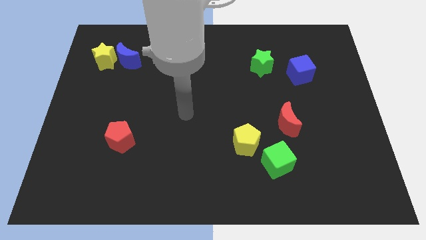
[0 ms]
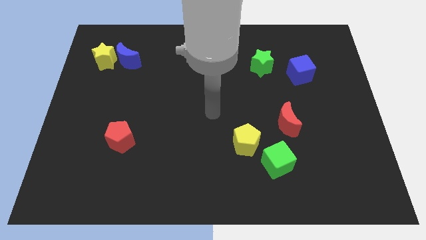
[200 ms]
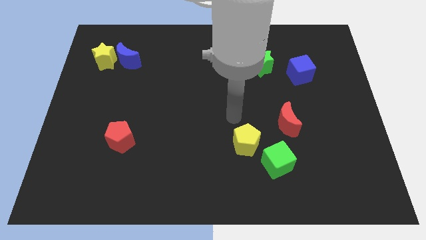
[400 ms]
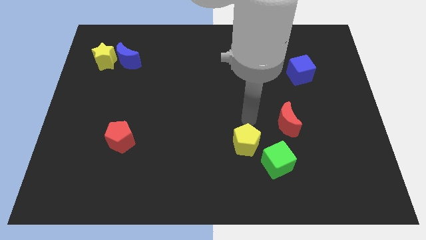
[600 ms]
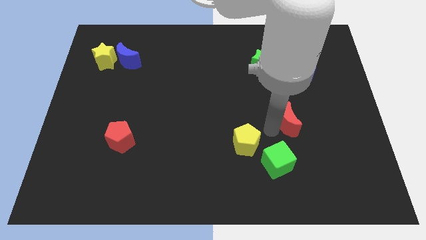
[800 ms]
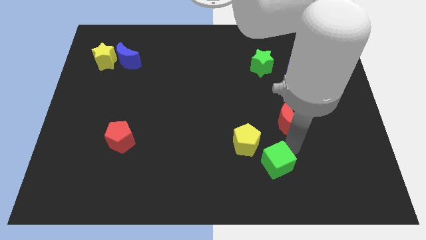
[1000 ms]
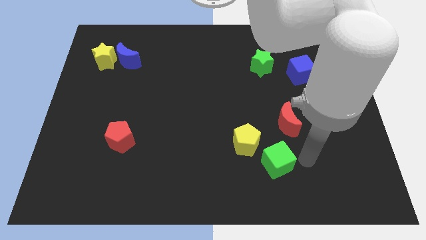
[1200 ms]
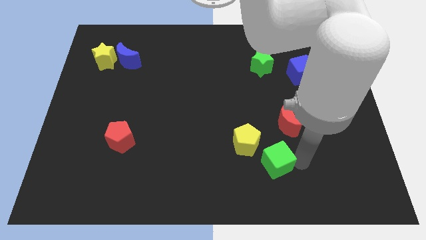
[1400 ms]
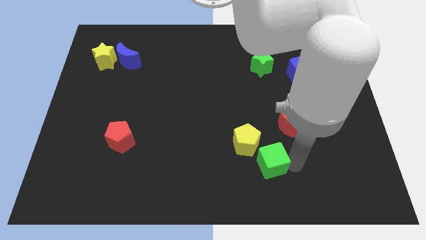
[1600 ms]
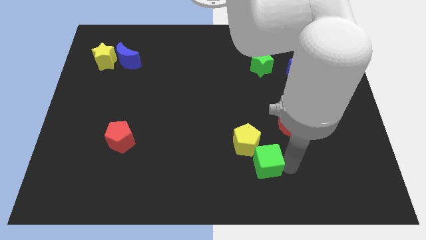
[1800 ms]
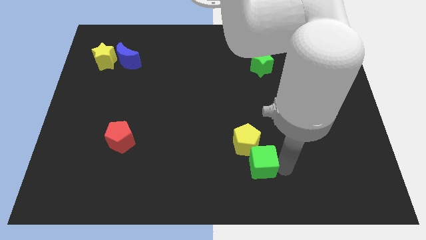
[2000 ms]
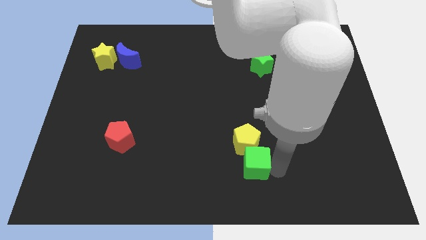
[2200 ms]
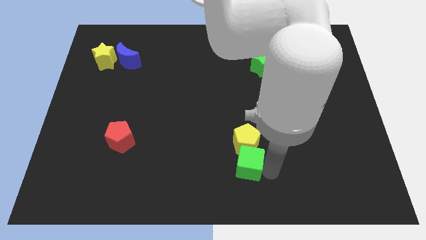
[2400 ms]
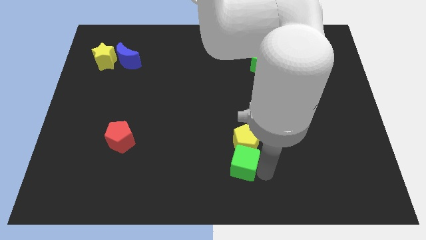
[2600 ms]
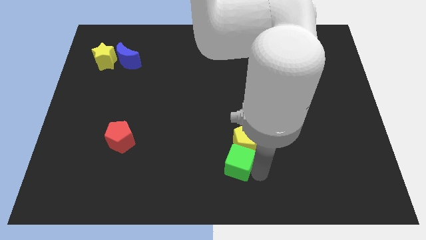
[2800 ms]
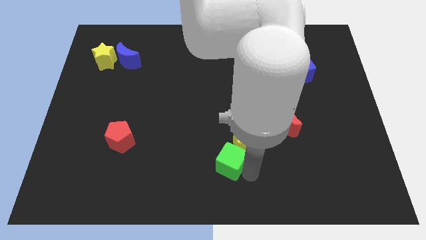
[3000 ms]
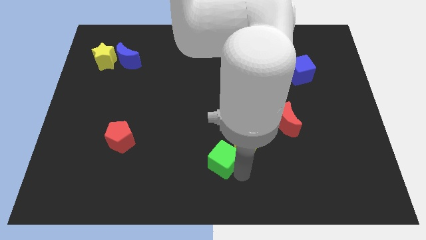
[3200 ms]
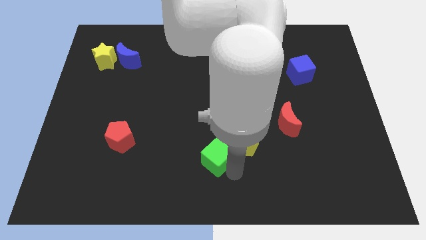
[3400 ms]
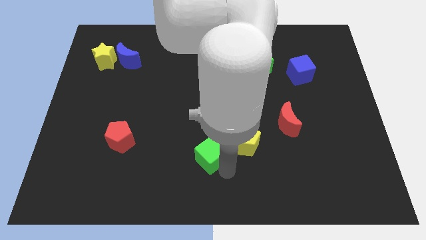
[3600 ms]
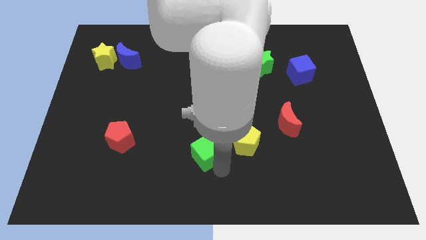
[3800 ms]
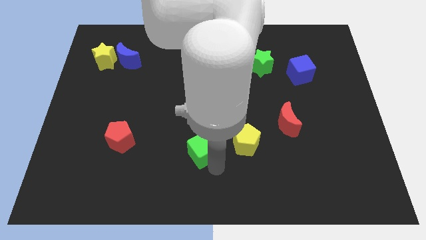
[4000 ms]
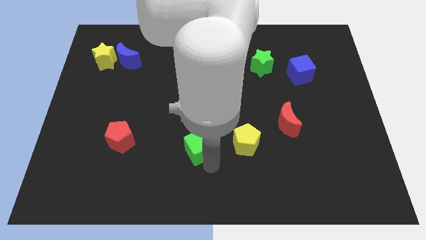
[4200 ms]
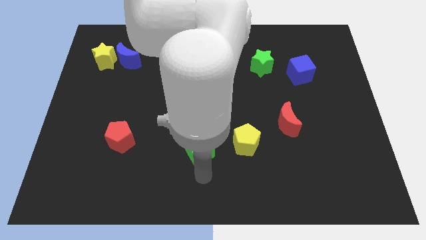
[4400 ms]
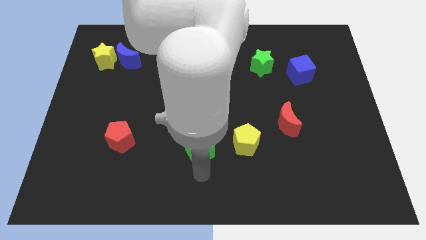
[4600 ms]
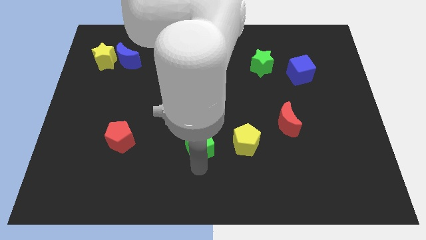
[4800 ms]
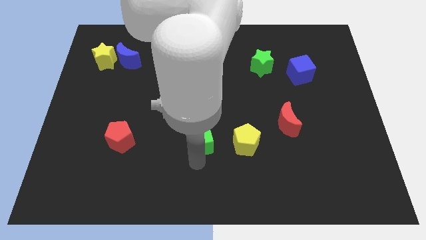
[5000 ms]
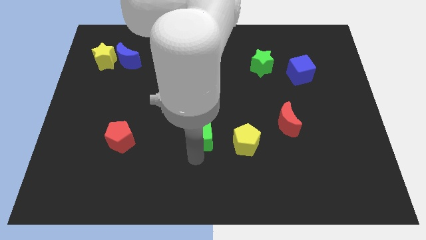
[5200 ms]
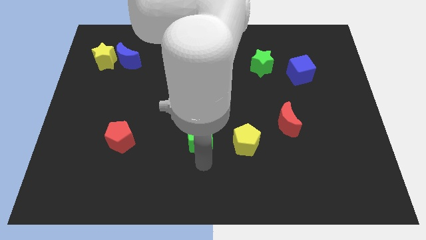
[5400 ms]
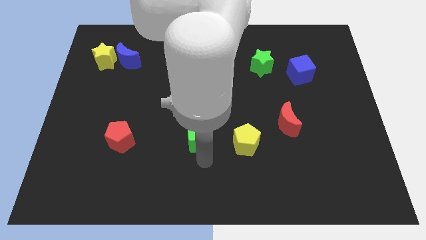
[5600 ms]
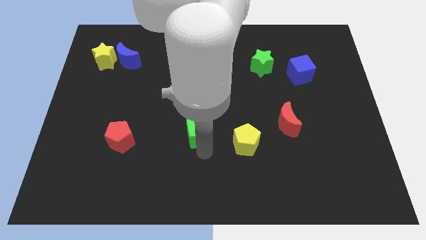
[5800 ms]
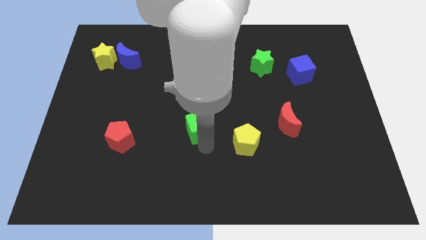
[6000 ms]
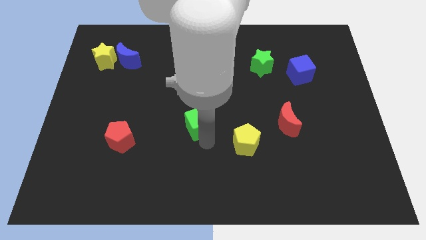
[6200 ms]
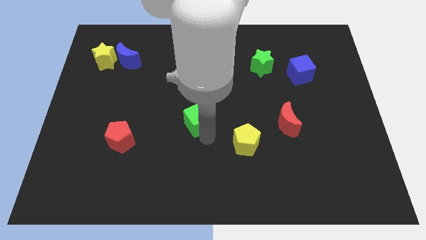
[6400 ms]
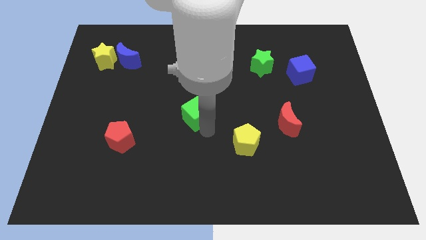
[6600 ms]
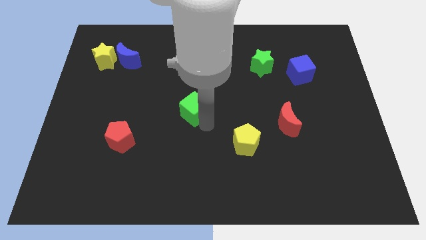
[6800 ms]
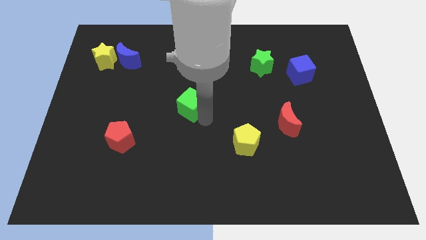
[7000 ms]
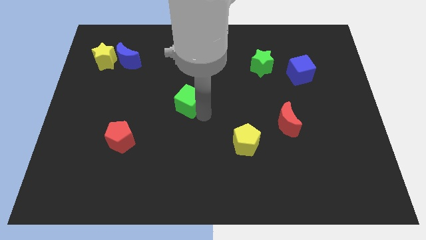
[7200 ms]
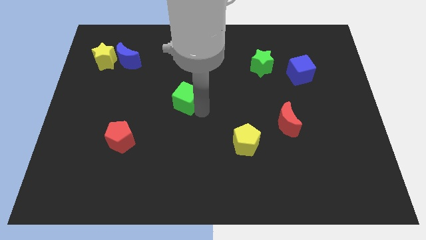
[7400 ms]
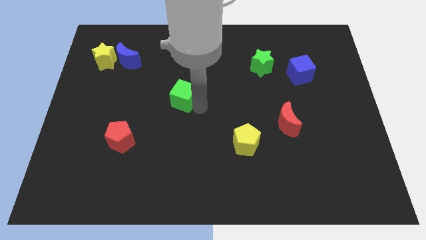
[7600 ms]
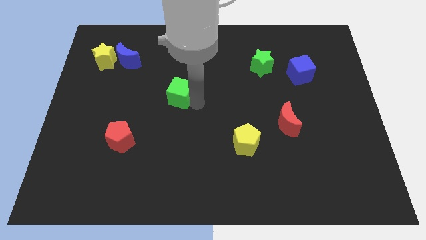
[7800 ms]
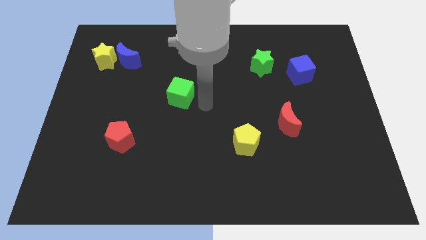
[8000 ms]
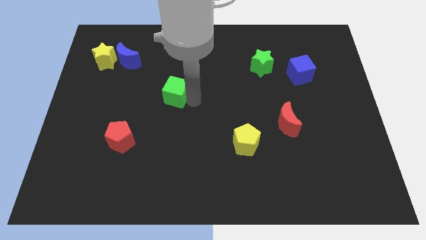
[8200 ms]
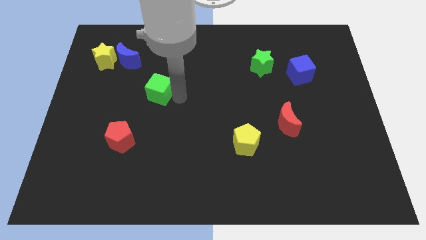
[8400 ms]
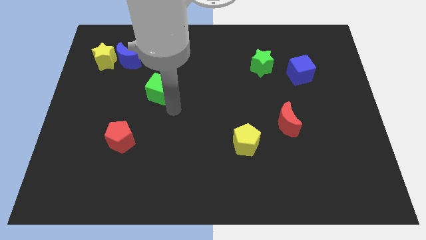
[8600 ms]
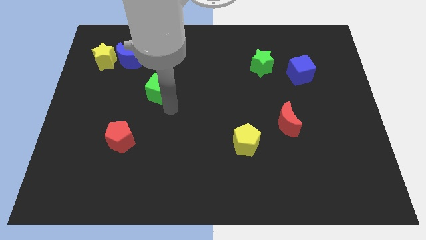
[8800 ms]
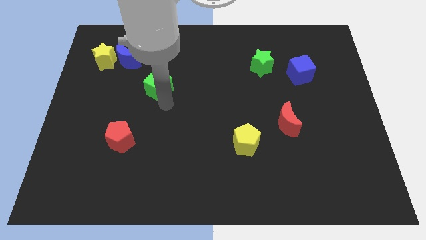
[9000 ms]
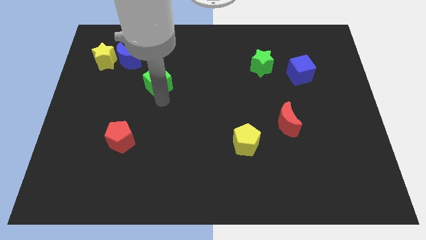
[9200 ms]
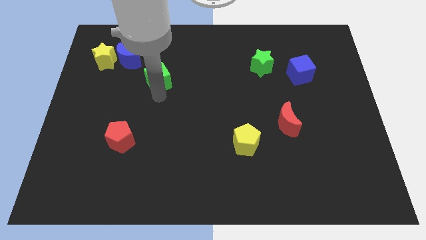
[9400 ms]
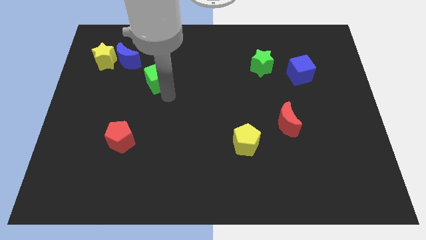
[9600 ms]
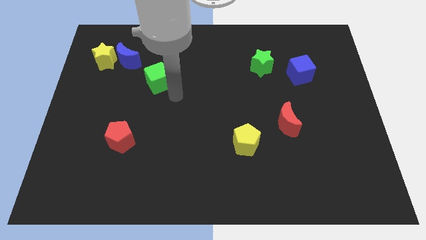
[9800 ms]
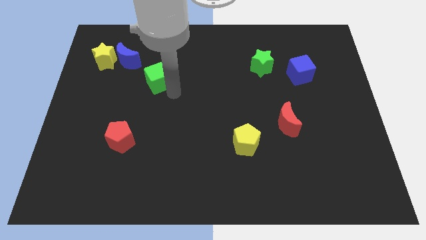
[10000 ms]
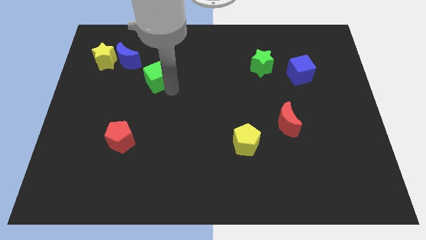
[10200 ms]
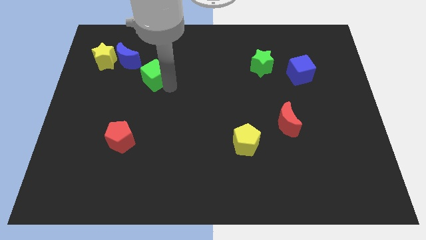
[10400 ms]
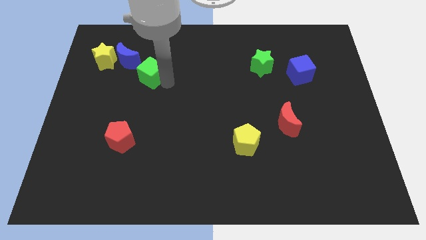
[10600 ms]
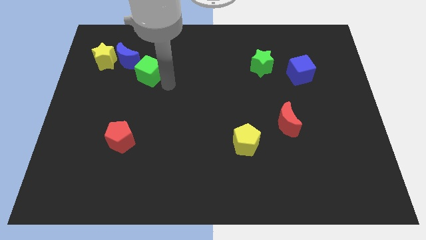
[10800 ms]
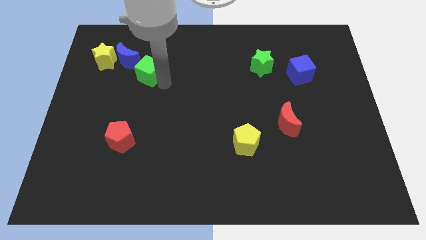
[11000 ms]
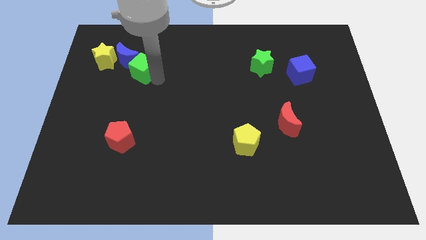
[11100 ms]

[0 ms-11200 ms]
slide the green cube towards the blue moon

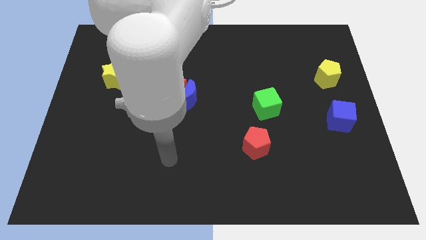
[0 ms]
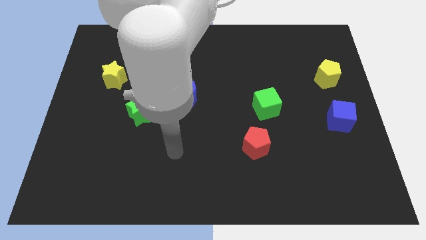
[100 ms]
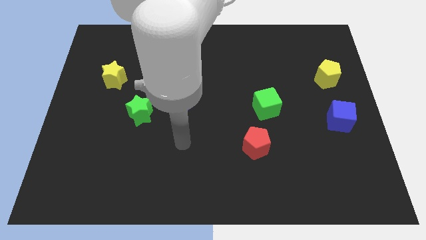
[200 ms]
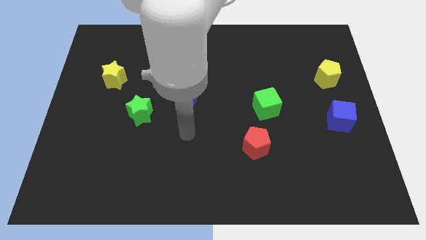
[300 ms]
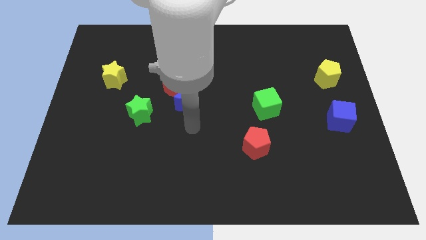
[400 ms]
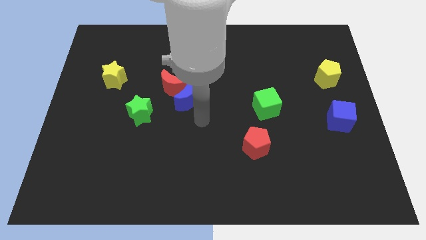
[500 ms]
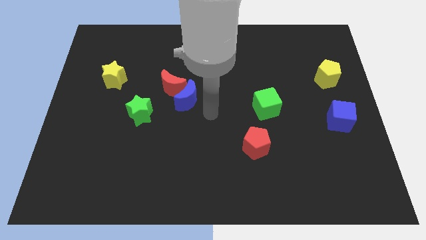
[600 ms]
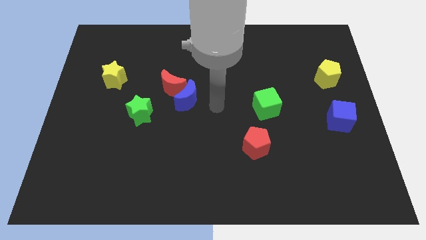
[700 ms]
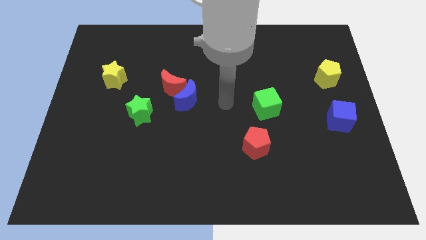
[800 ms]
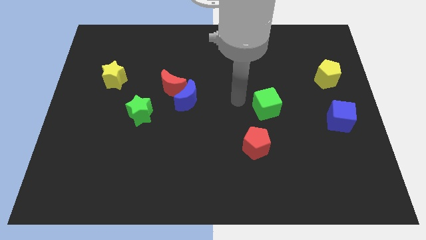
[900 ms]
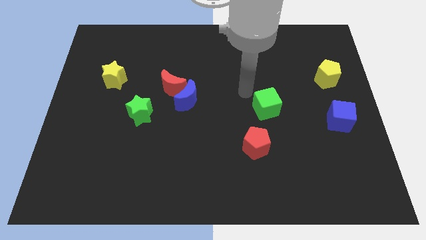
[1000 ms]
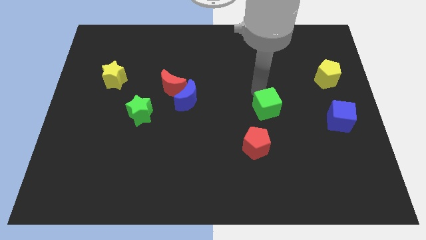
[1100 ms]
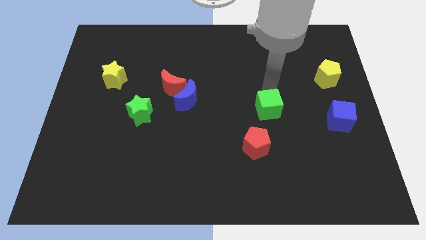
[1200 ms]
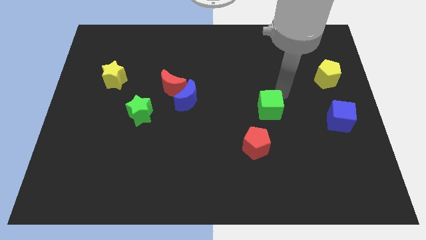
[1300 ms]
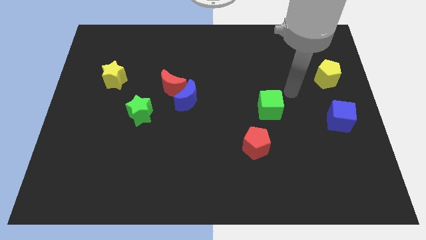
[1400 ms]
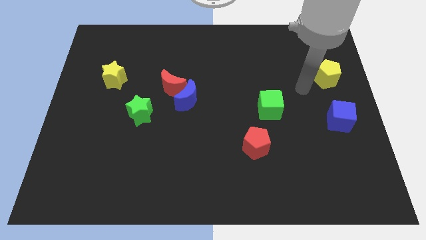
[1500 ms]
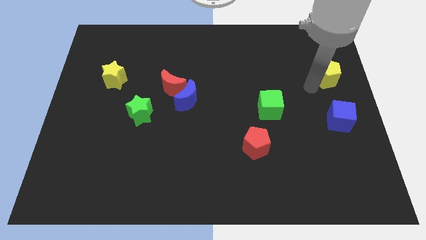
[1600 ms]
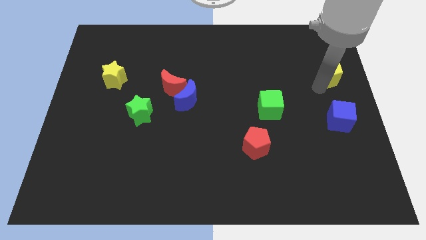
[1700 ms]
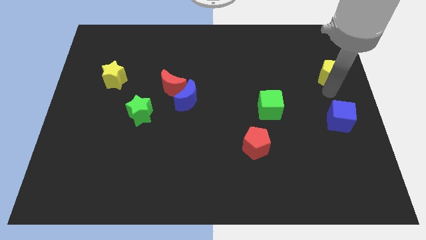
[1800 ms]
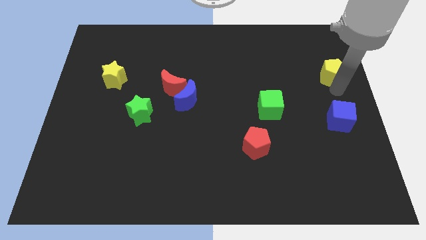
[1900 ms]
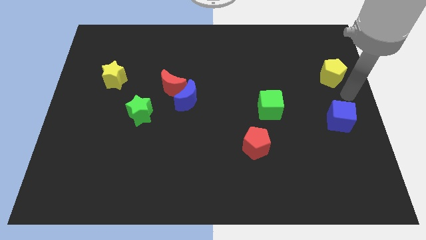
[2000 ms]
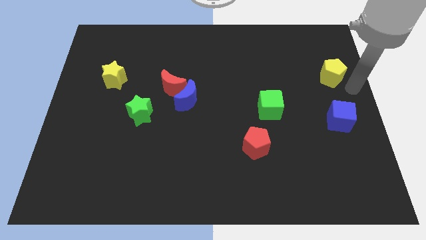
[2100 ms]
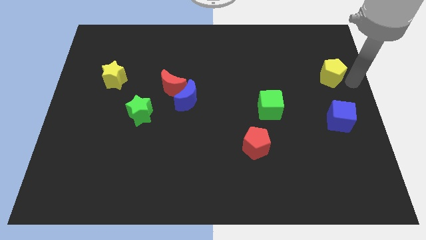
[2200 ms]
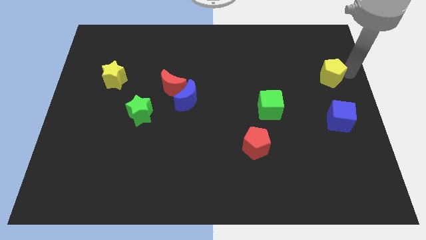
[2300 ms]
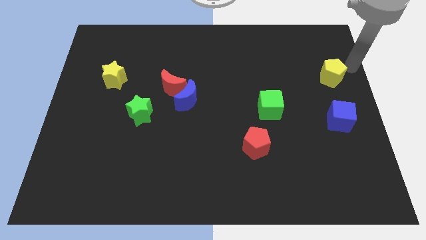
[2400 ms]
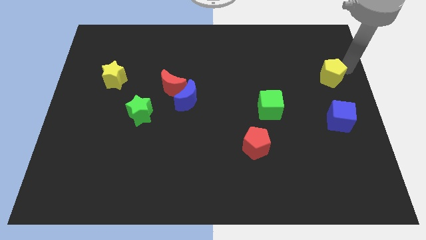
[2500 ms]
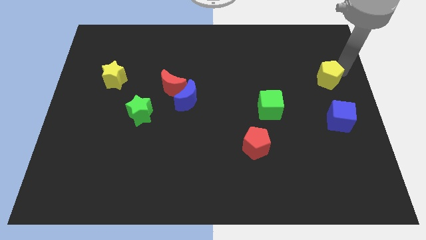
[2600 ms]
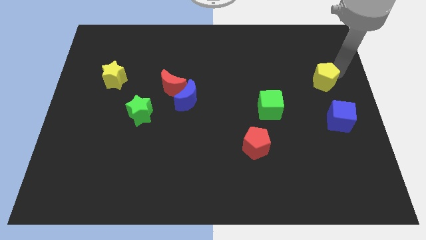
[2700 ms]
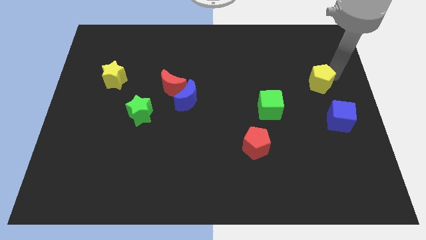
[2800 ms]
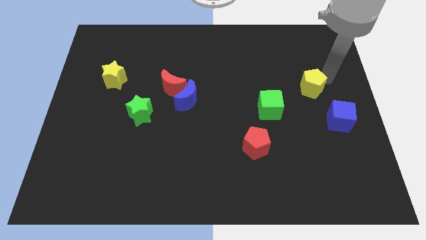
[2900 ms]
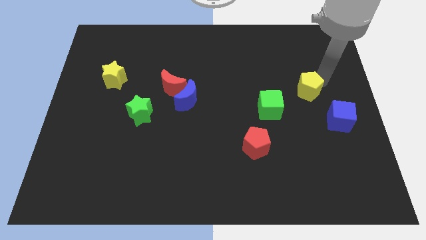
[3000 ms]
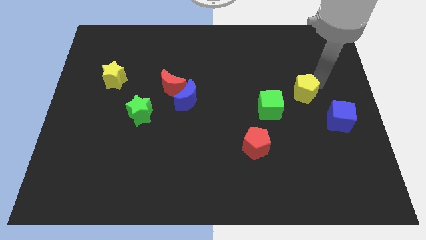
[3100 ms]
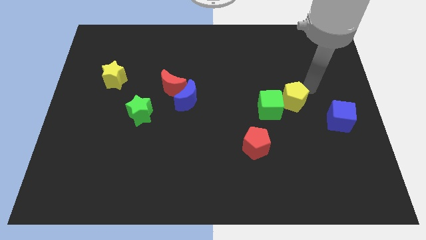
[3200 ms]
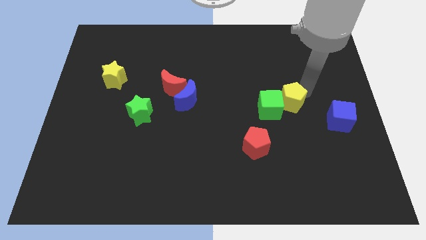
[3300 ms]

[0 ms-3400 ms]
put the yellow pentagon towards the green cube
